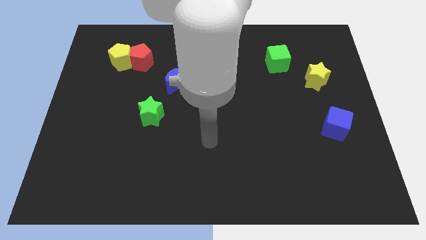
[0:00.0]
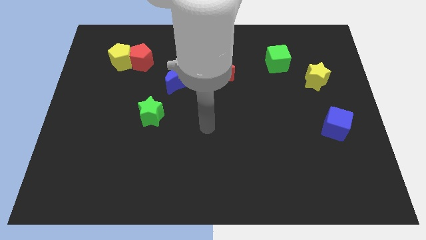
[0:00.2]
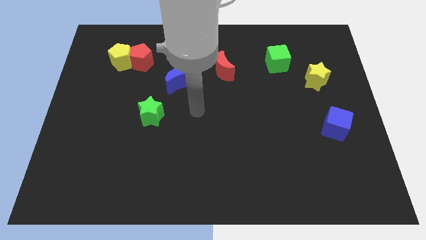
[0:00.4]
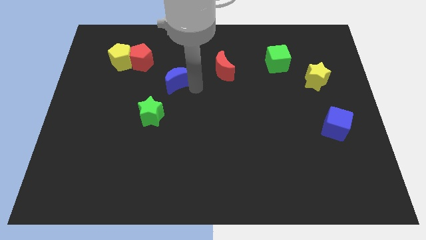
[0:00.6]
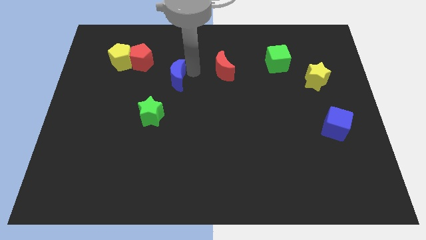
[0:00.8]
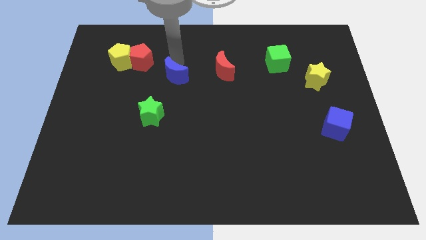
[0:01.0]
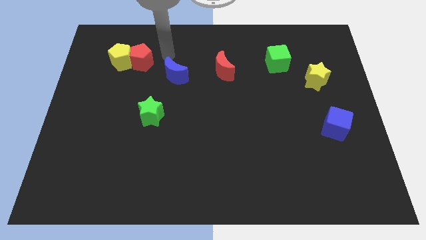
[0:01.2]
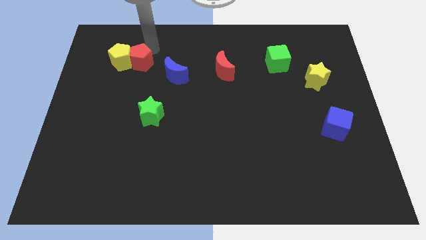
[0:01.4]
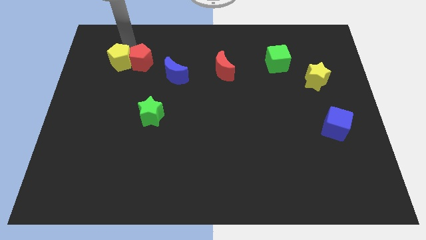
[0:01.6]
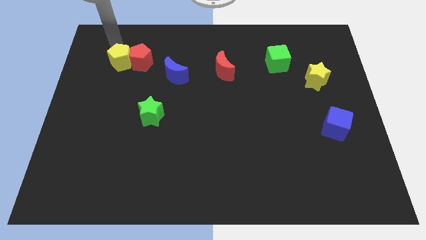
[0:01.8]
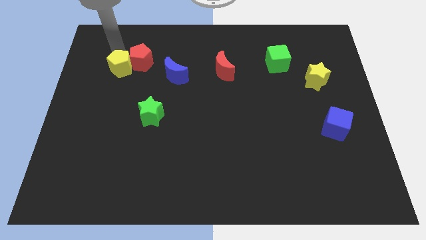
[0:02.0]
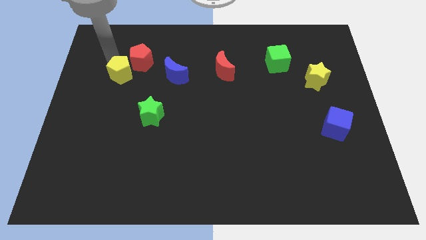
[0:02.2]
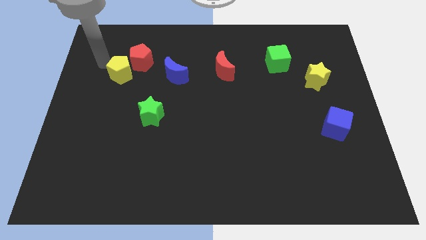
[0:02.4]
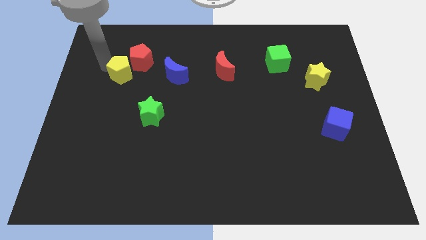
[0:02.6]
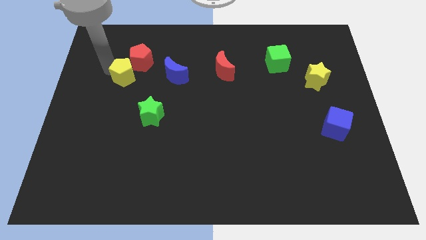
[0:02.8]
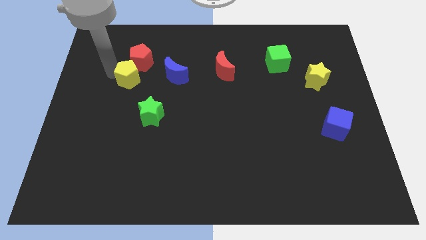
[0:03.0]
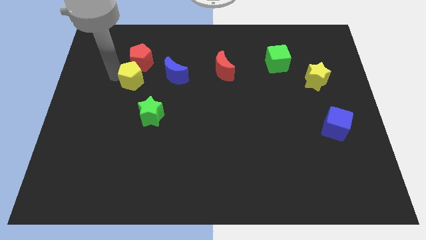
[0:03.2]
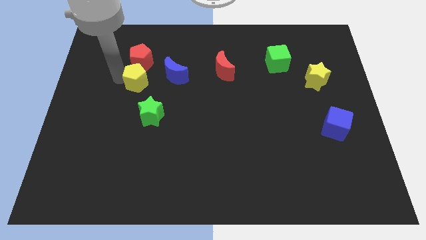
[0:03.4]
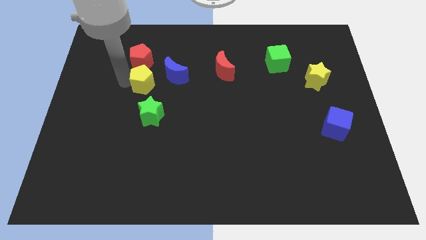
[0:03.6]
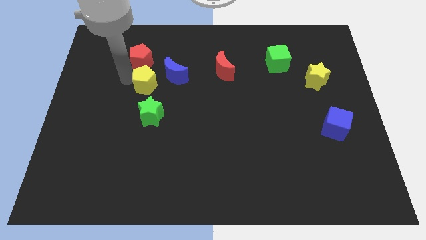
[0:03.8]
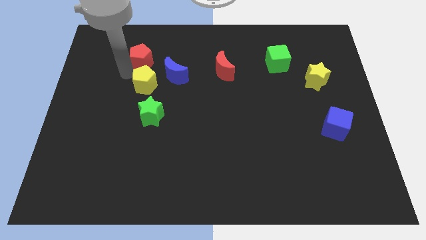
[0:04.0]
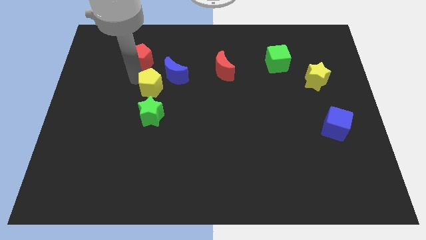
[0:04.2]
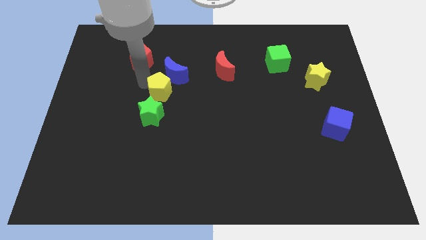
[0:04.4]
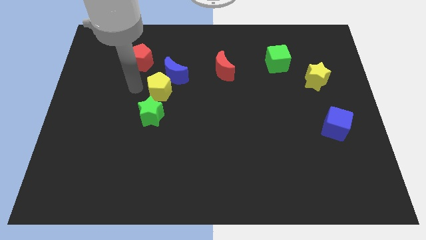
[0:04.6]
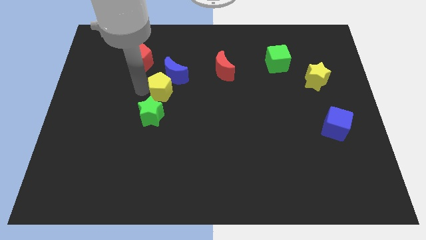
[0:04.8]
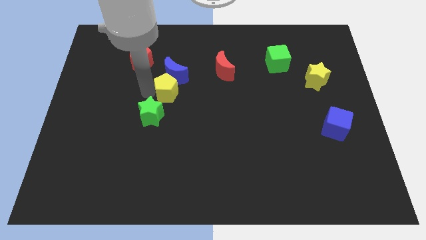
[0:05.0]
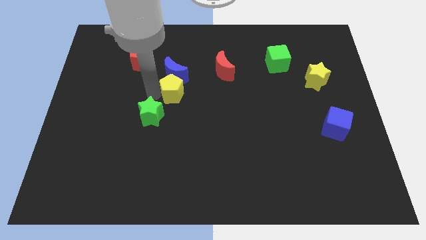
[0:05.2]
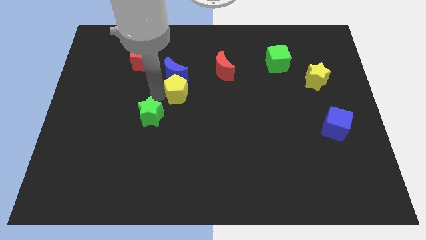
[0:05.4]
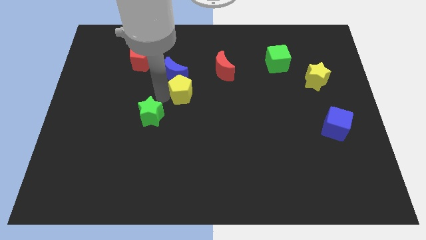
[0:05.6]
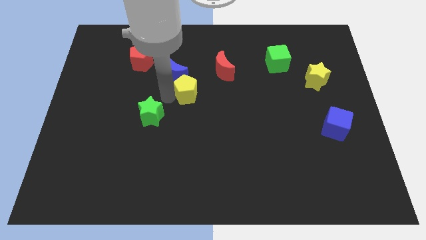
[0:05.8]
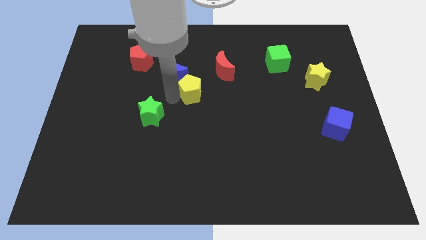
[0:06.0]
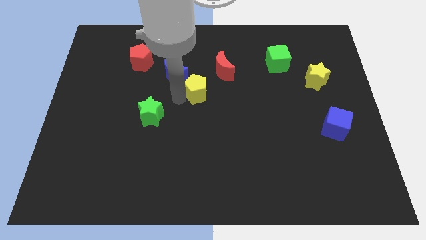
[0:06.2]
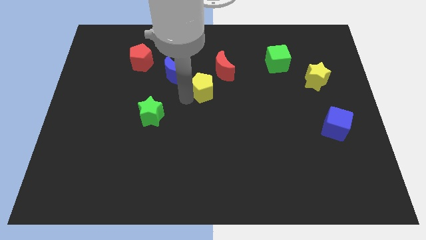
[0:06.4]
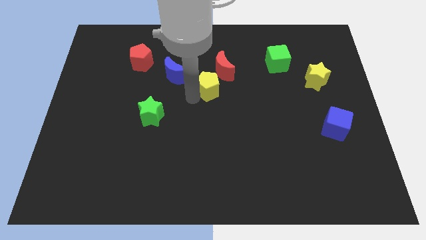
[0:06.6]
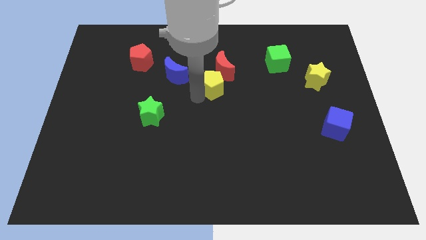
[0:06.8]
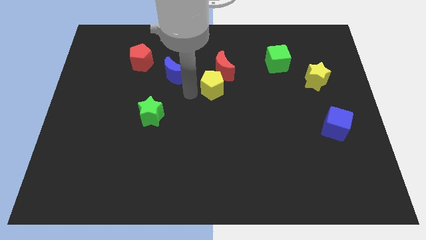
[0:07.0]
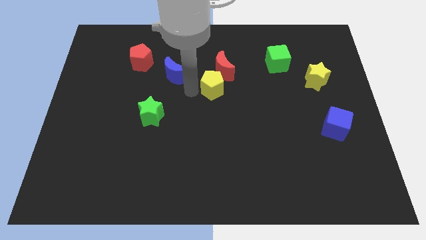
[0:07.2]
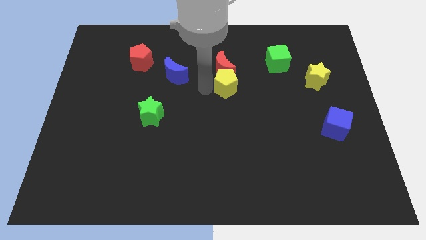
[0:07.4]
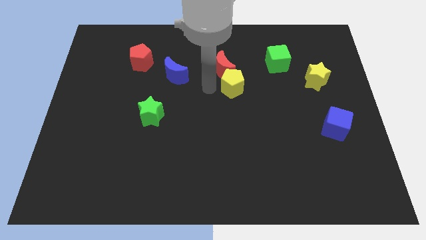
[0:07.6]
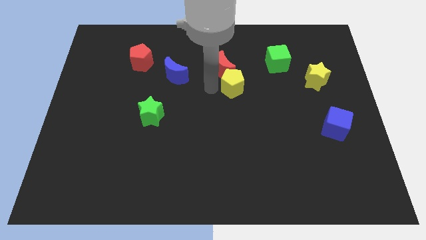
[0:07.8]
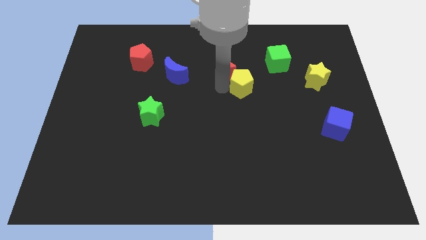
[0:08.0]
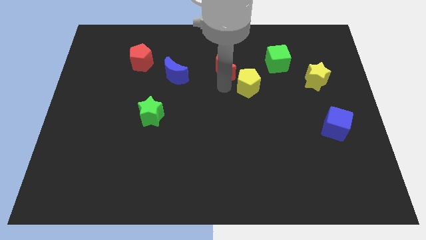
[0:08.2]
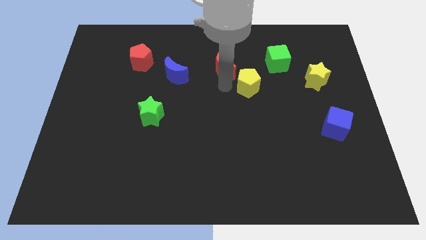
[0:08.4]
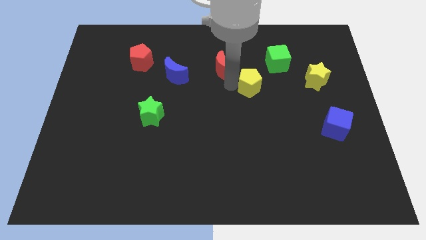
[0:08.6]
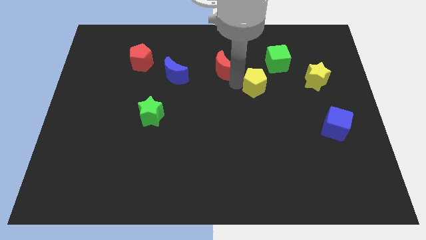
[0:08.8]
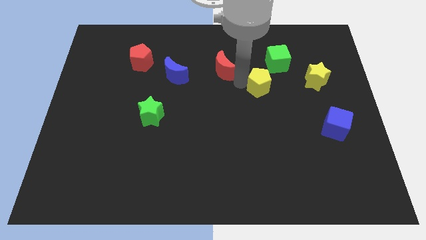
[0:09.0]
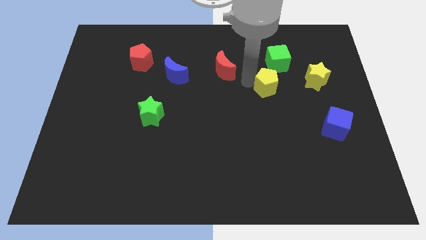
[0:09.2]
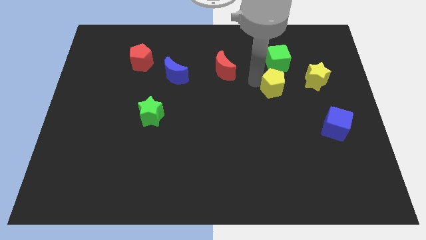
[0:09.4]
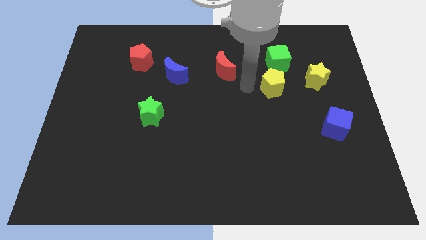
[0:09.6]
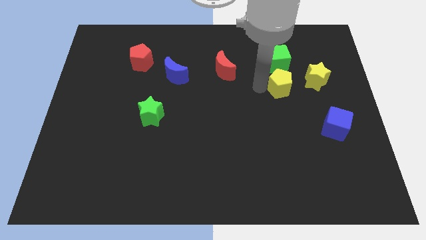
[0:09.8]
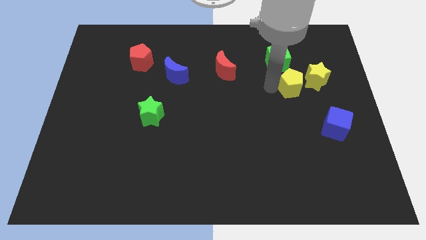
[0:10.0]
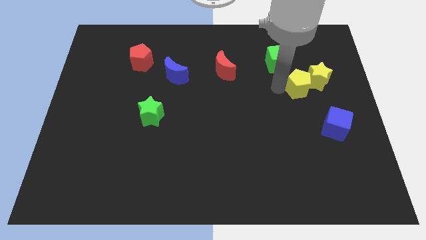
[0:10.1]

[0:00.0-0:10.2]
put the yellow pentagon next to the yellow star

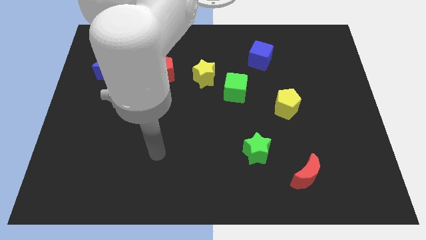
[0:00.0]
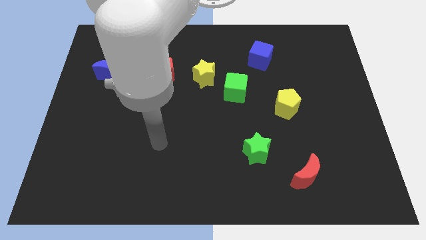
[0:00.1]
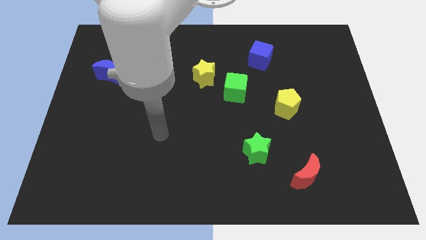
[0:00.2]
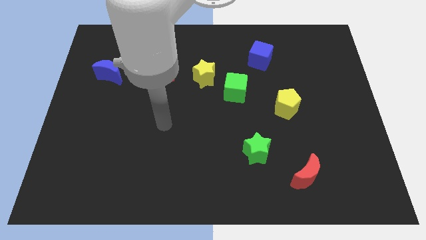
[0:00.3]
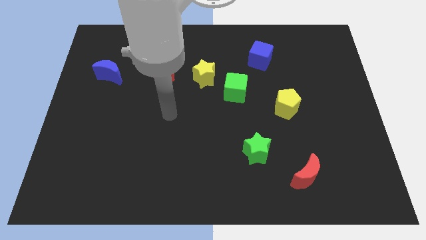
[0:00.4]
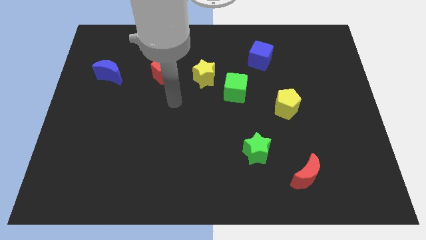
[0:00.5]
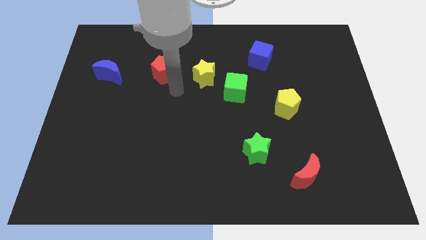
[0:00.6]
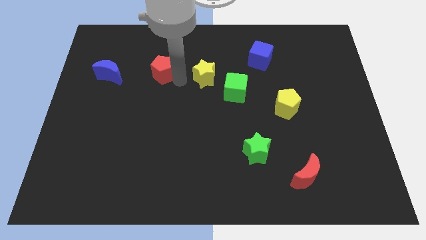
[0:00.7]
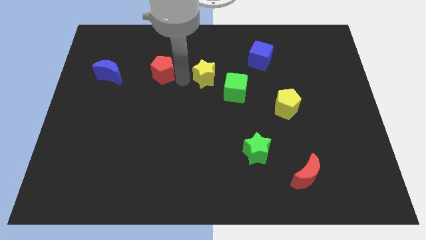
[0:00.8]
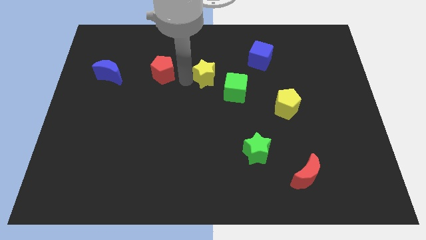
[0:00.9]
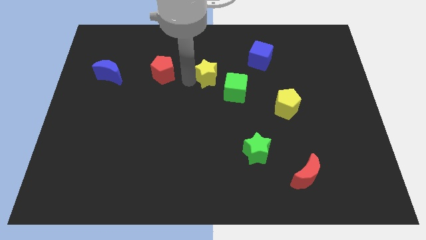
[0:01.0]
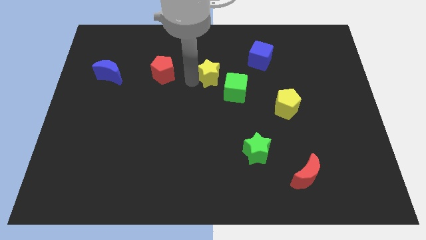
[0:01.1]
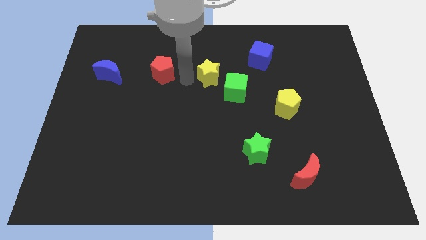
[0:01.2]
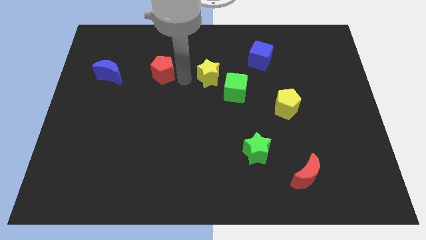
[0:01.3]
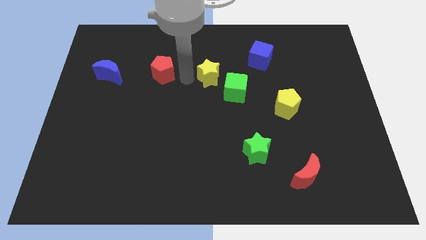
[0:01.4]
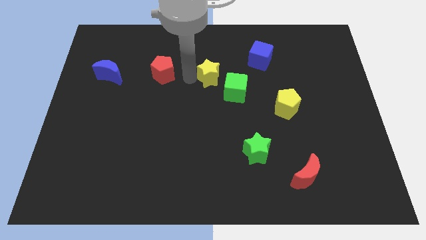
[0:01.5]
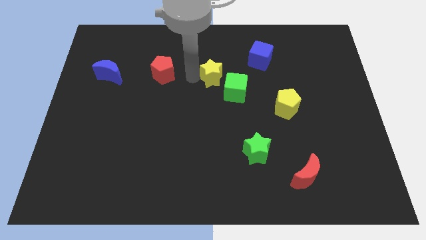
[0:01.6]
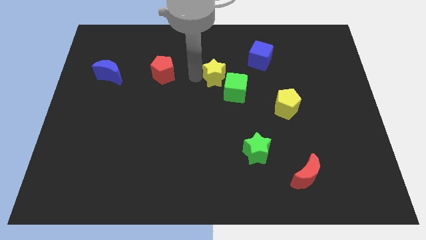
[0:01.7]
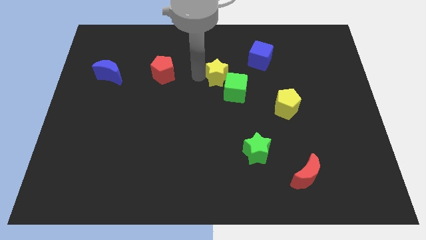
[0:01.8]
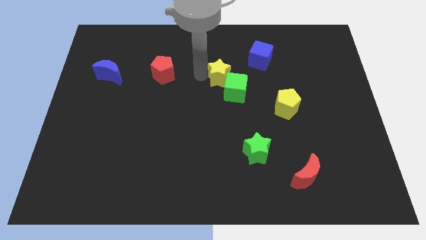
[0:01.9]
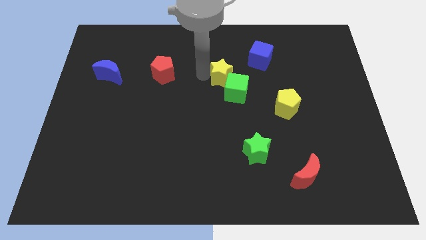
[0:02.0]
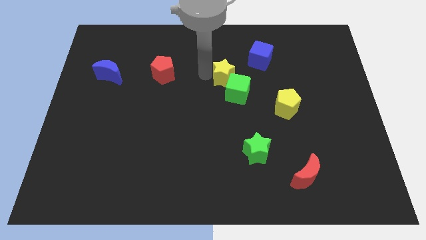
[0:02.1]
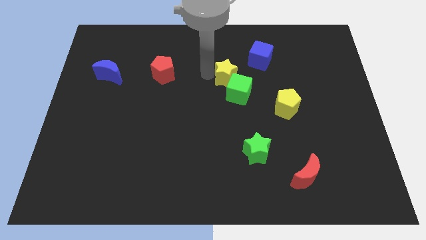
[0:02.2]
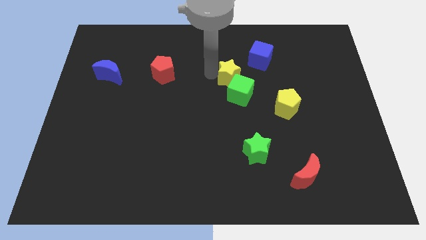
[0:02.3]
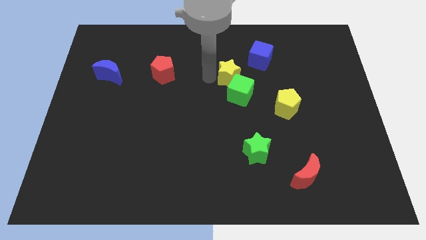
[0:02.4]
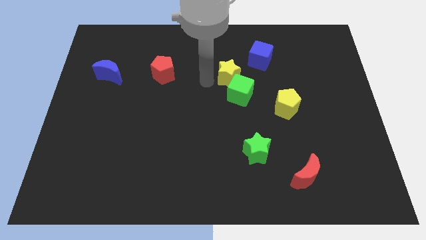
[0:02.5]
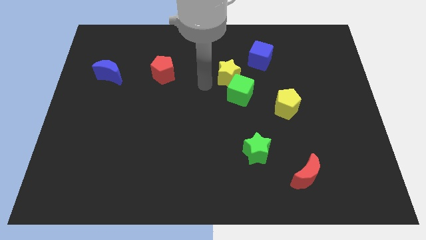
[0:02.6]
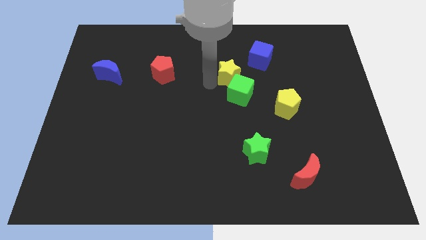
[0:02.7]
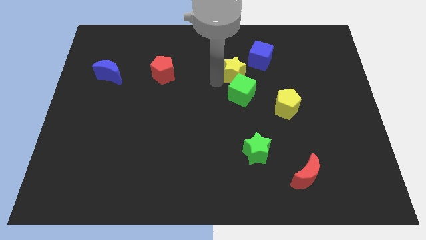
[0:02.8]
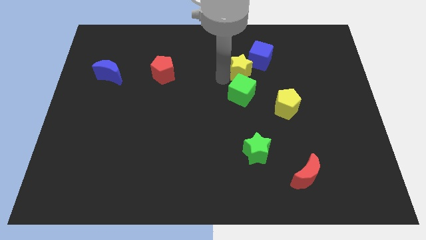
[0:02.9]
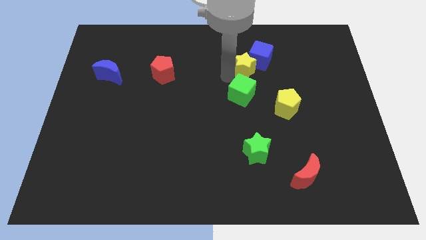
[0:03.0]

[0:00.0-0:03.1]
move the yellow star close to the blue cube

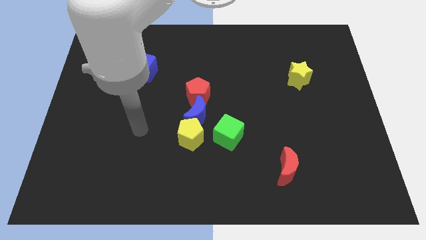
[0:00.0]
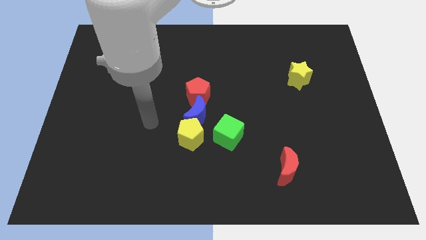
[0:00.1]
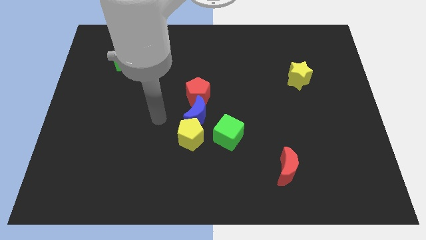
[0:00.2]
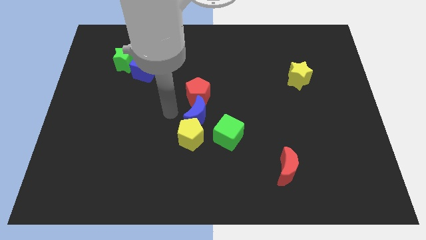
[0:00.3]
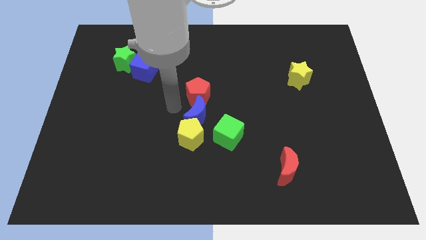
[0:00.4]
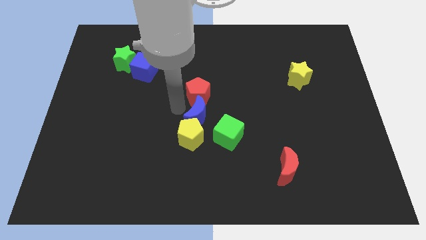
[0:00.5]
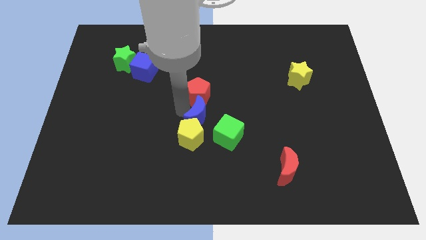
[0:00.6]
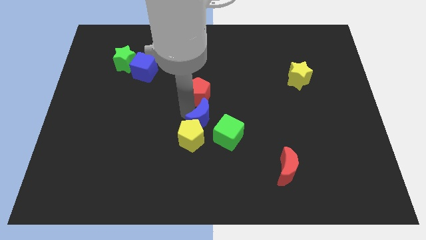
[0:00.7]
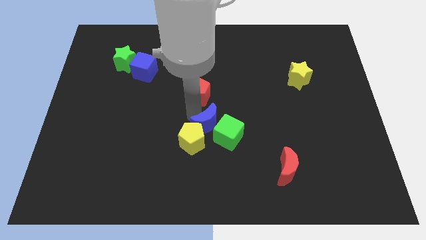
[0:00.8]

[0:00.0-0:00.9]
slide the blue moon to the green cube
